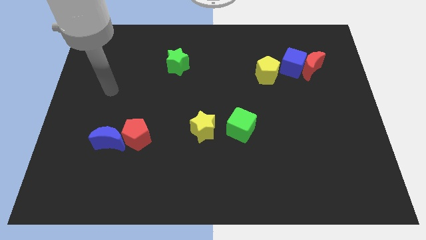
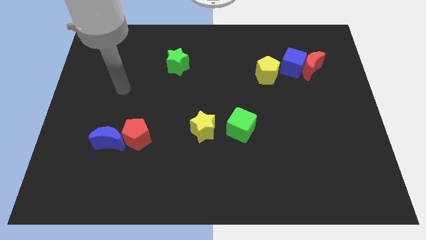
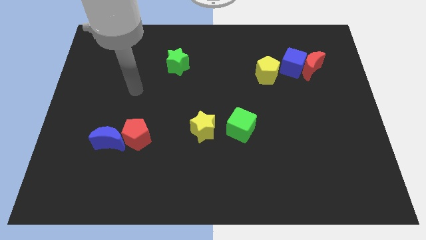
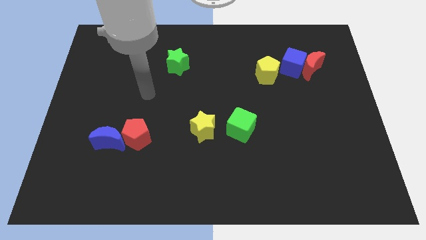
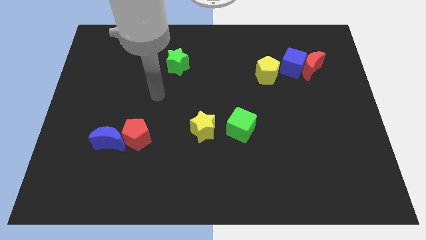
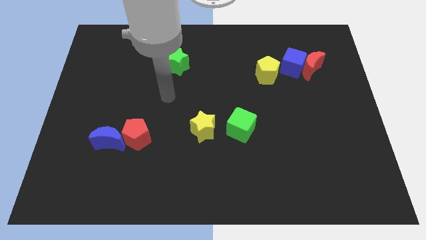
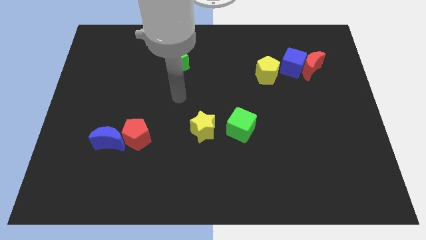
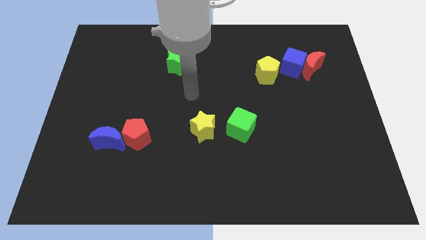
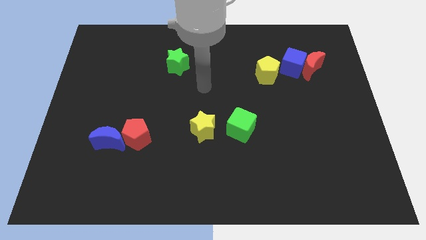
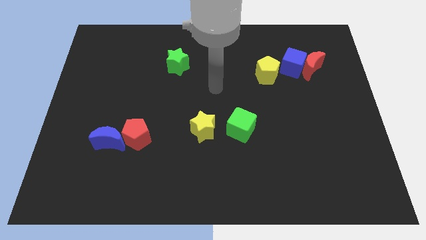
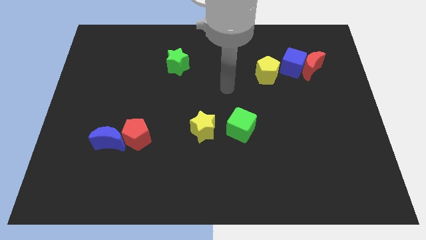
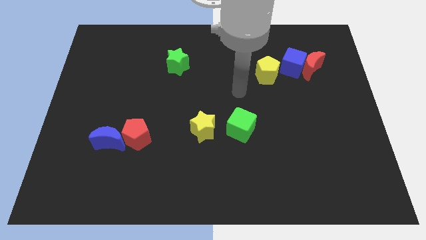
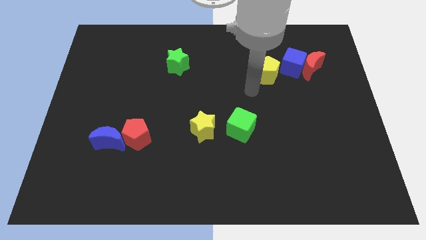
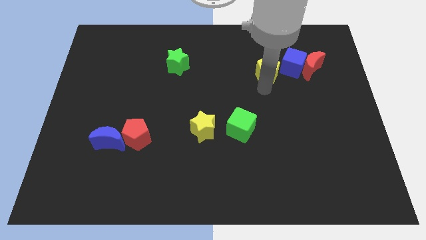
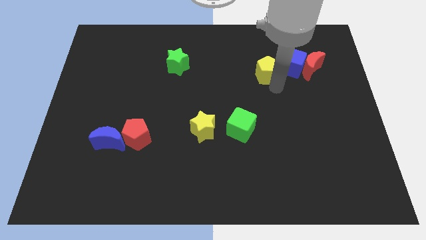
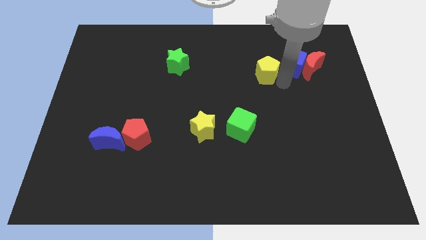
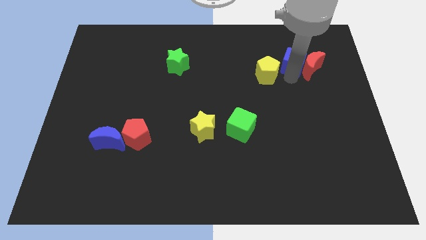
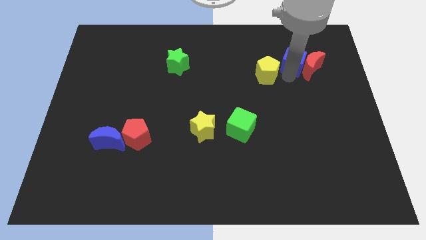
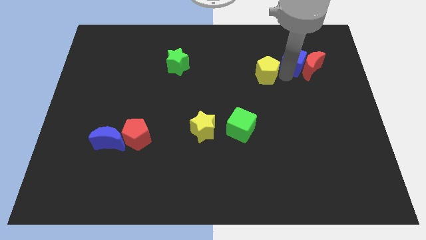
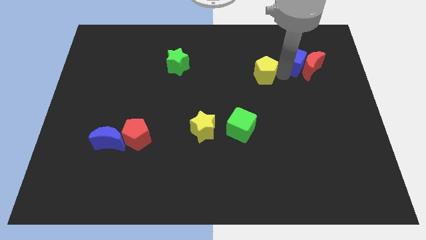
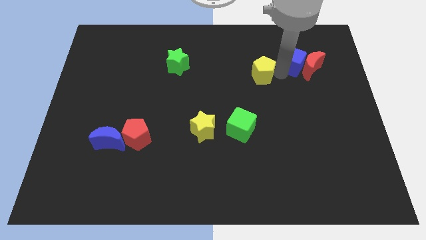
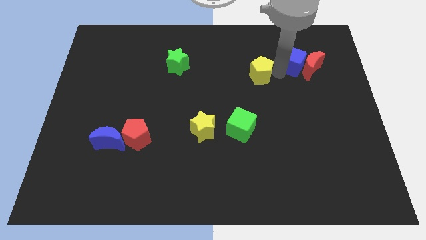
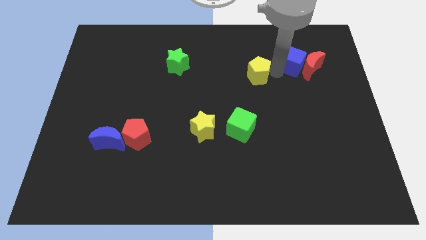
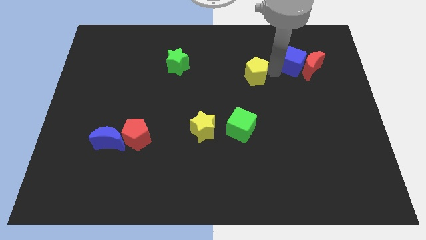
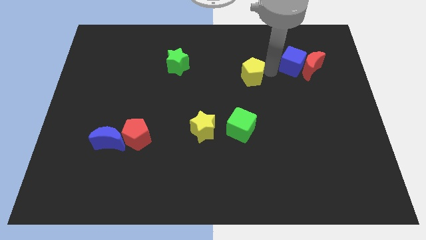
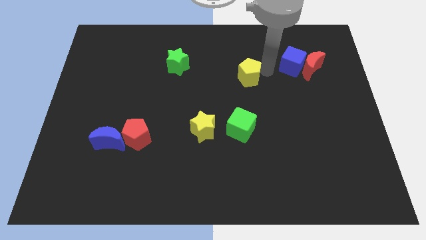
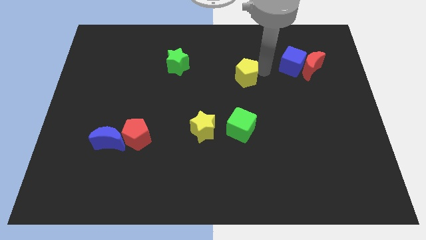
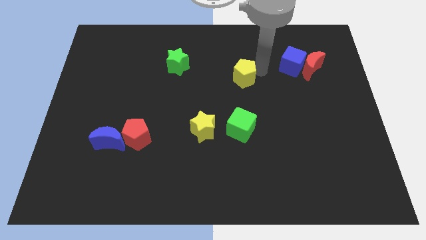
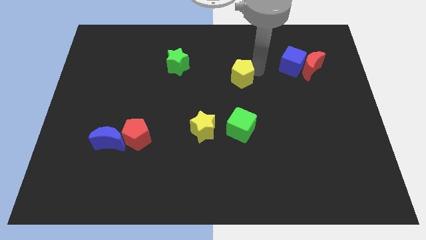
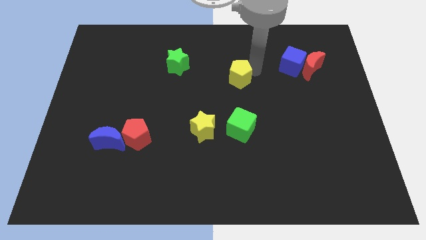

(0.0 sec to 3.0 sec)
slightly slide the yellow pentagon to the left

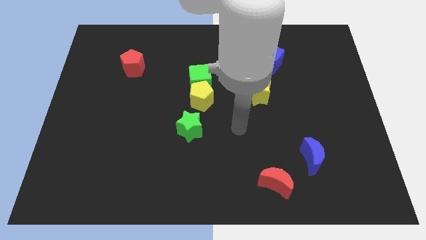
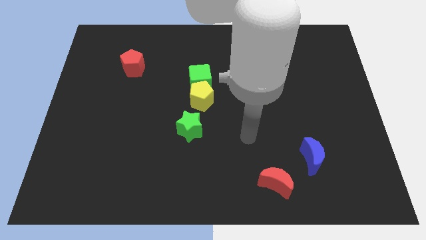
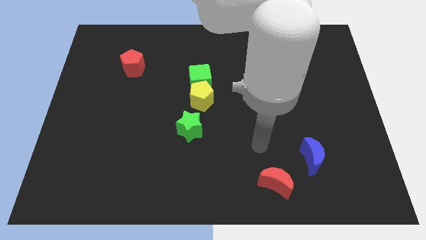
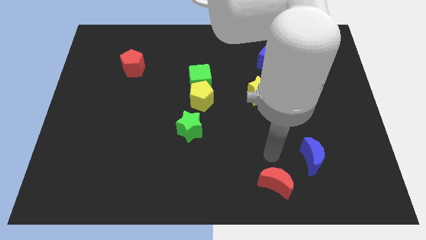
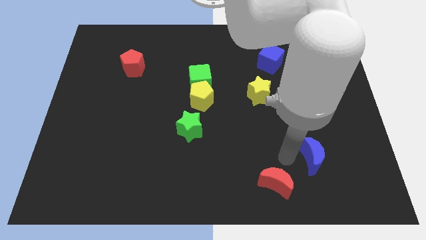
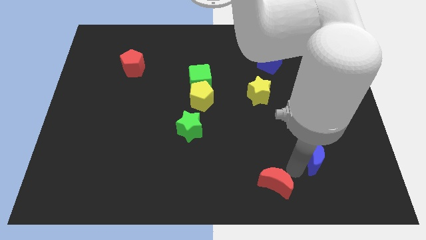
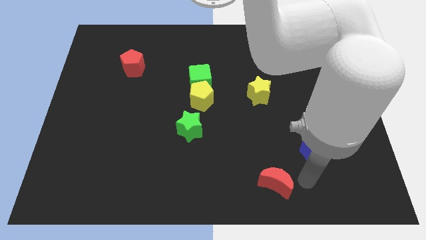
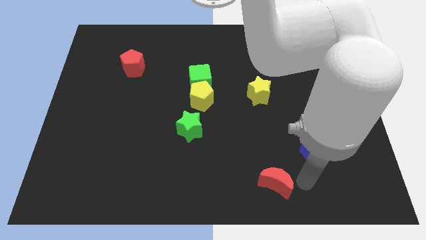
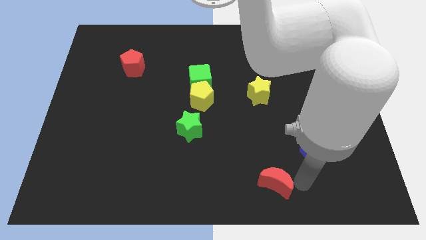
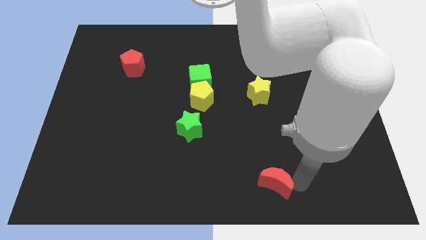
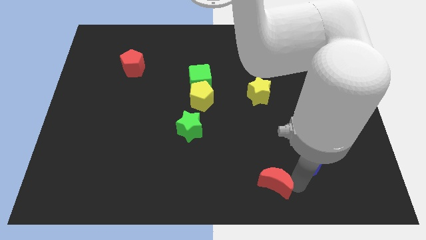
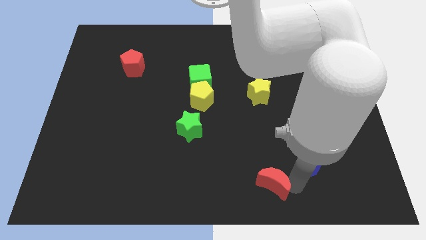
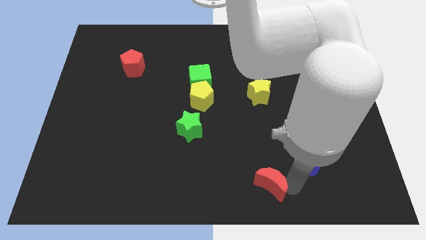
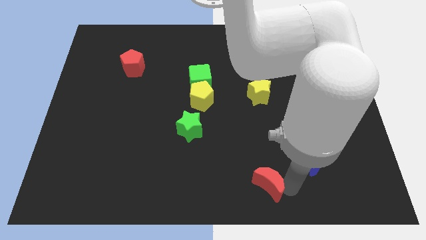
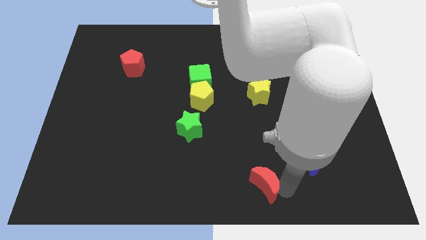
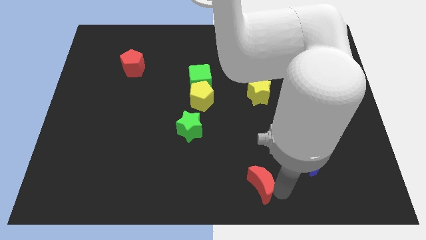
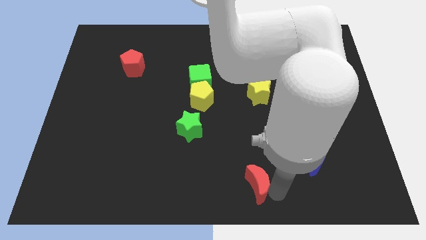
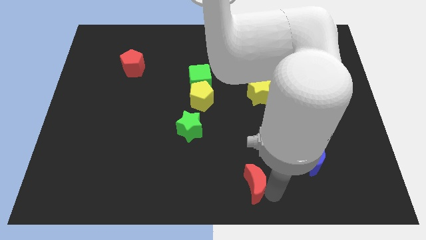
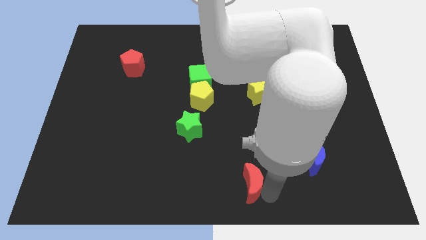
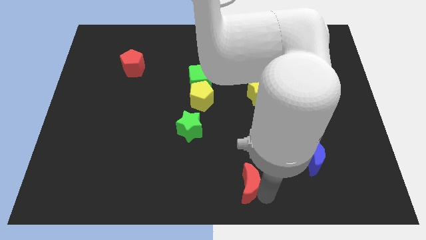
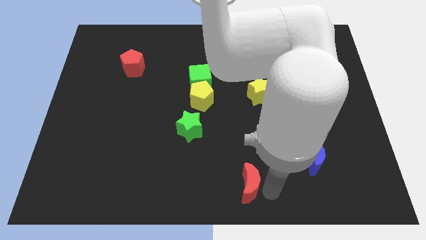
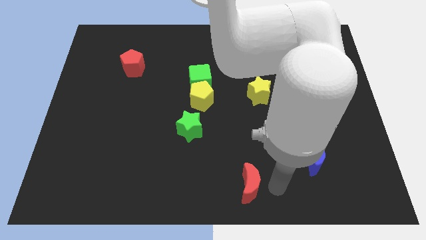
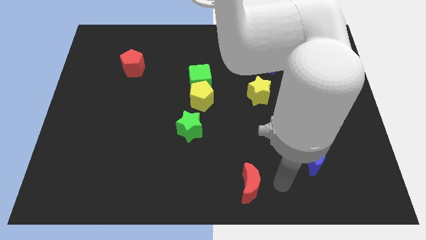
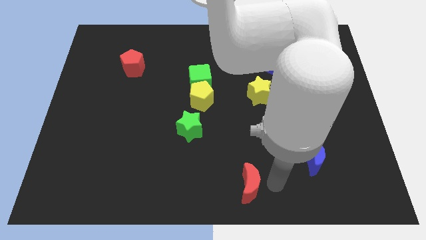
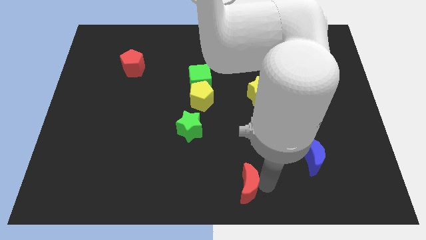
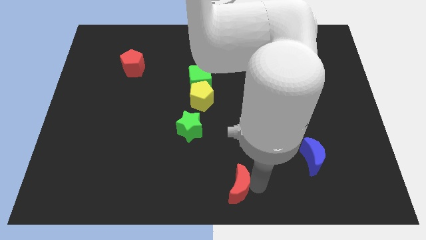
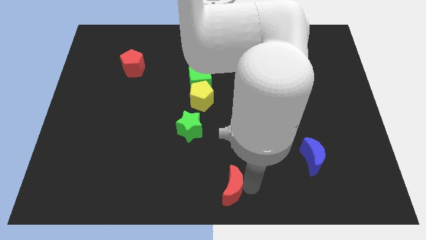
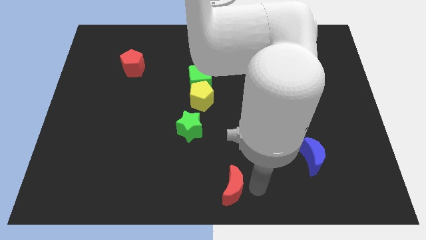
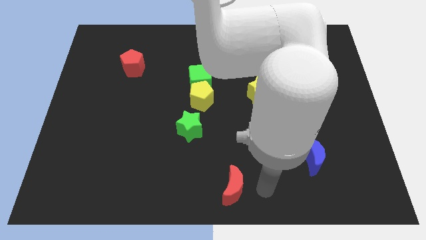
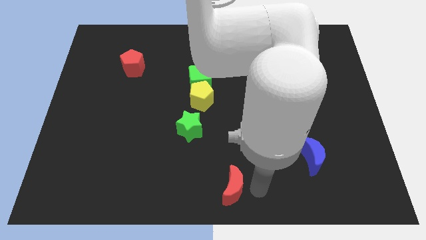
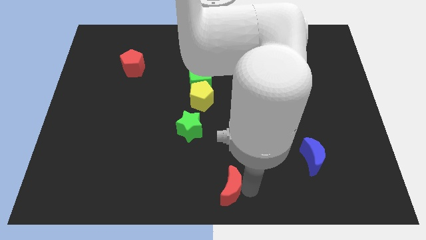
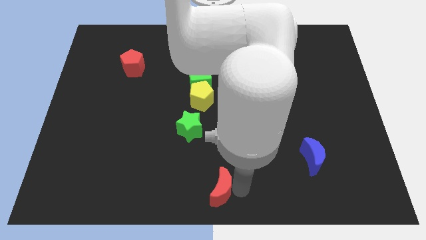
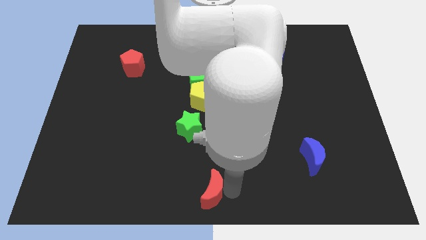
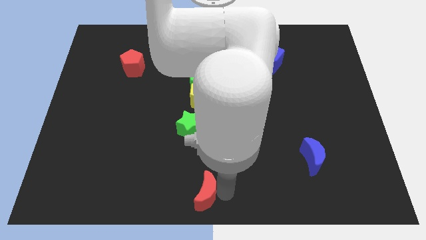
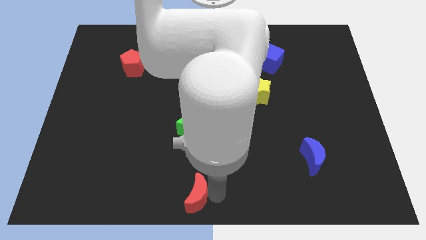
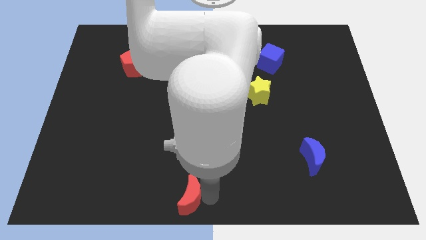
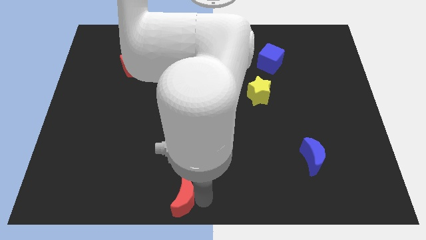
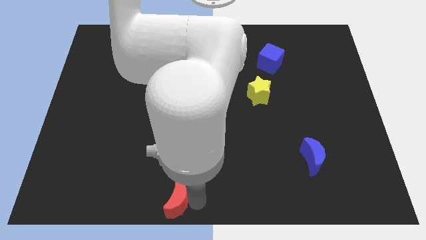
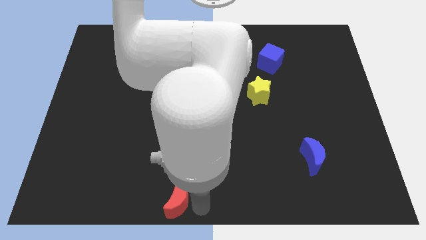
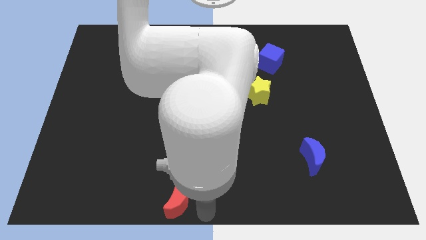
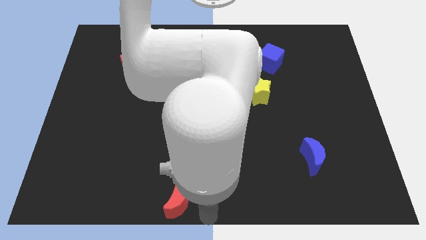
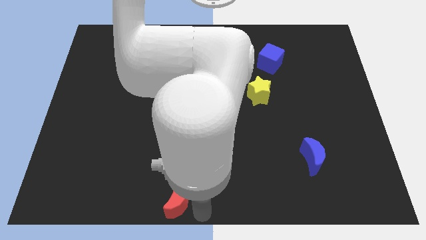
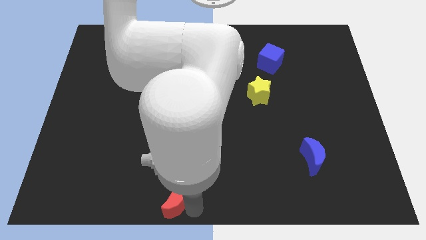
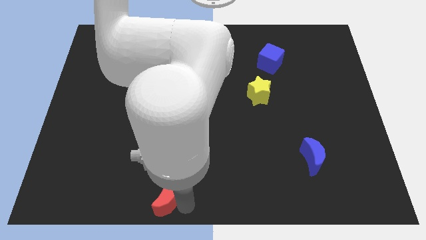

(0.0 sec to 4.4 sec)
slide the red moon to the left

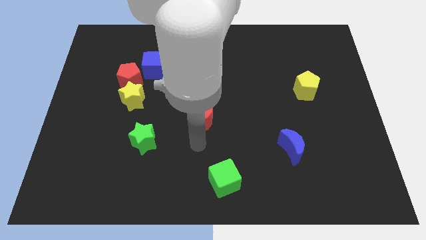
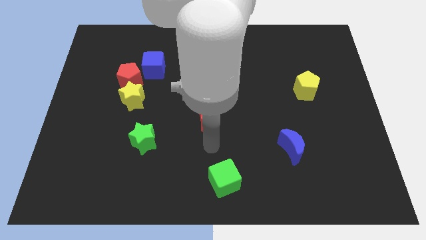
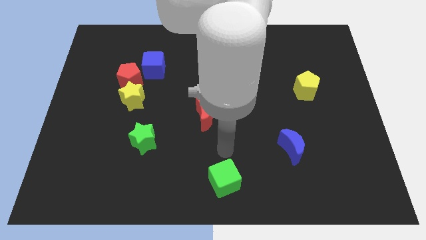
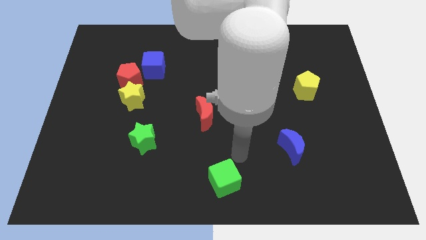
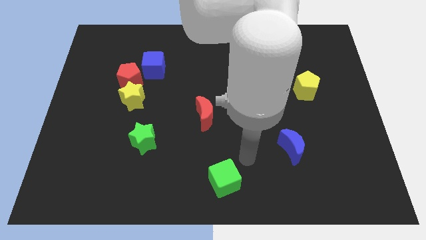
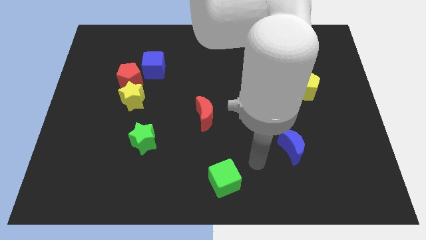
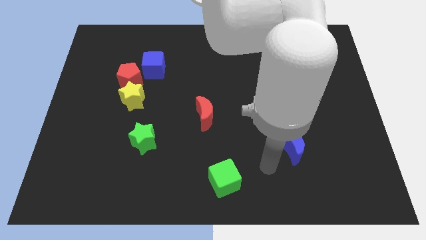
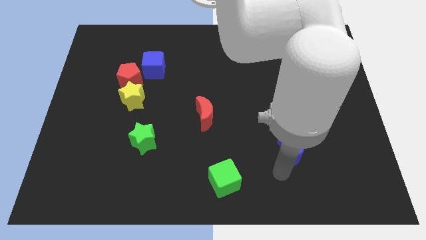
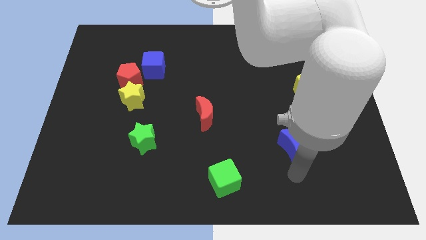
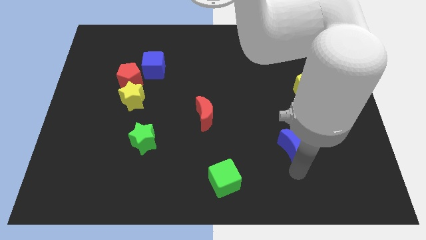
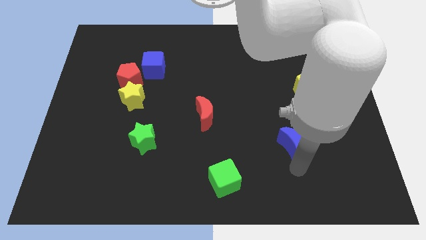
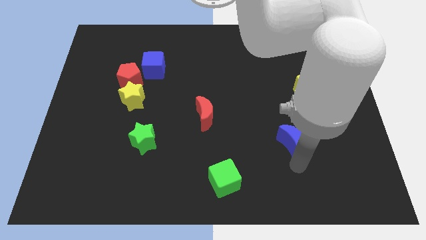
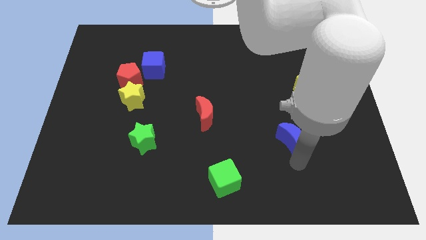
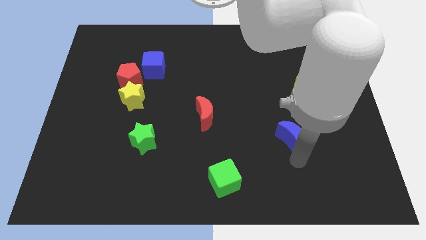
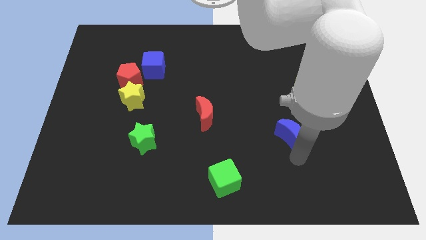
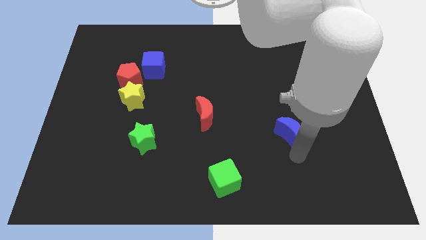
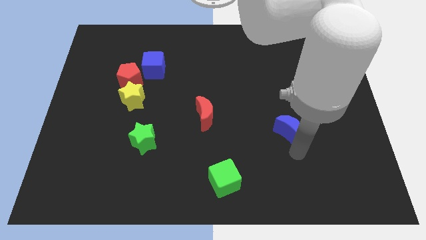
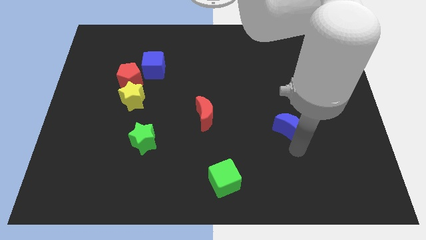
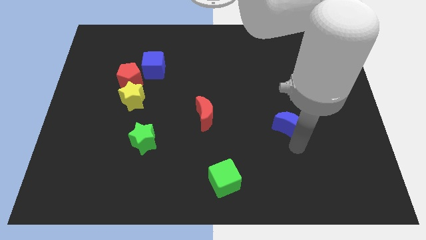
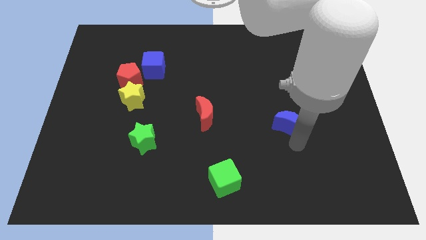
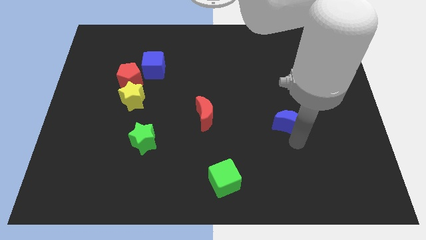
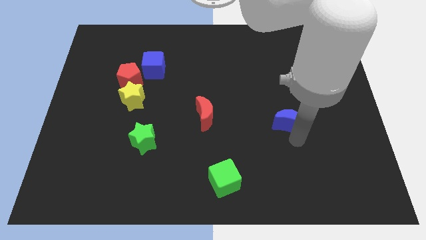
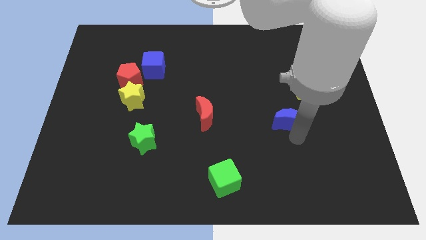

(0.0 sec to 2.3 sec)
slightly move the blue moon upwards
